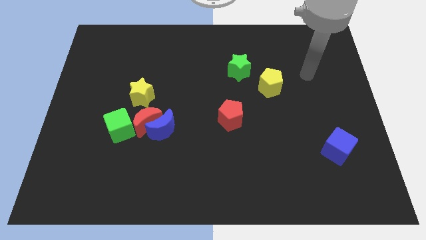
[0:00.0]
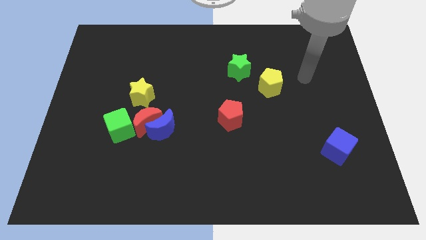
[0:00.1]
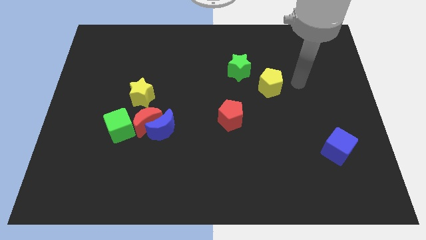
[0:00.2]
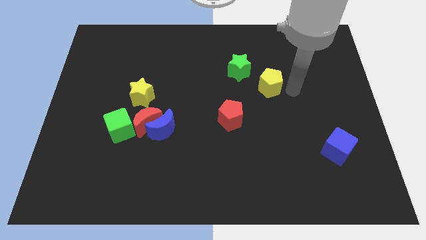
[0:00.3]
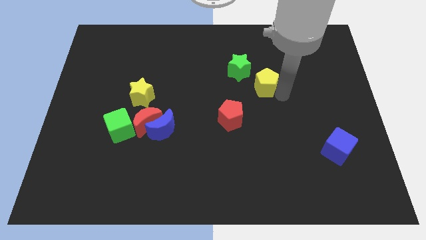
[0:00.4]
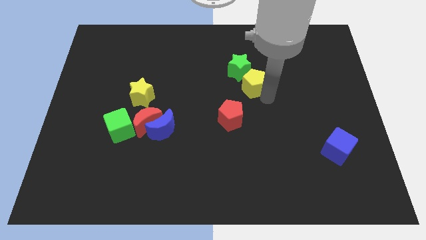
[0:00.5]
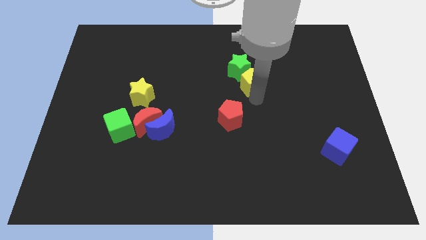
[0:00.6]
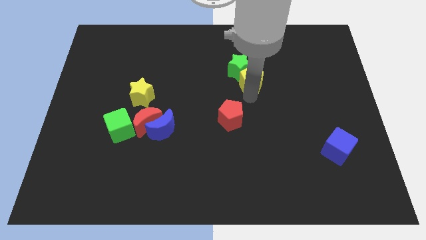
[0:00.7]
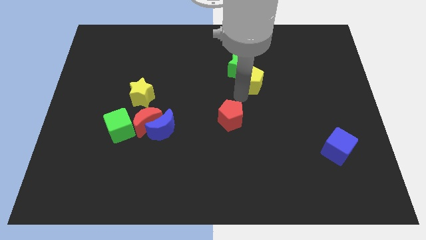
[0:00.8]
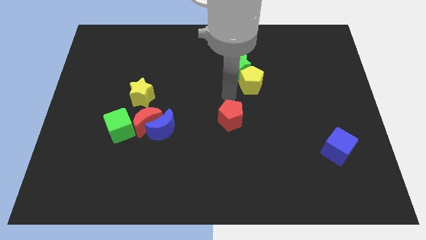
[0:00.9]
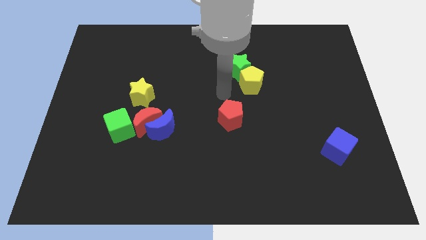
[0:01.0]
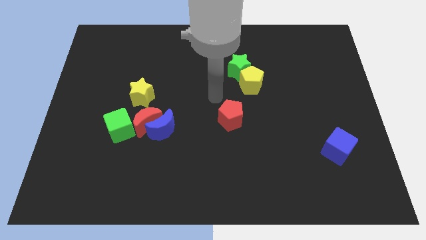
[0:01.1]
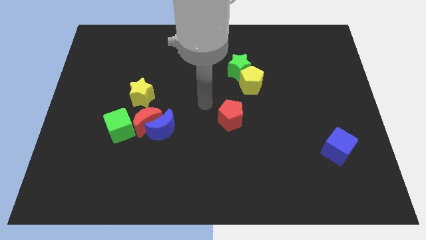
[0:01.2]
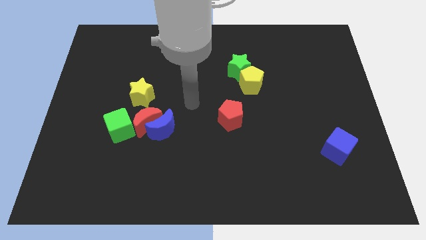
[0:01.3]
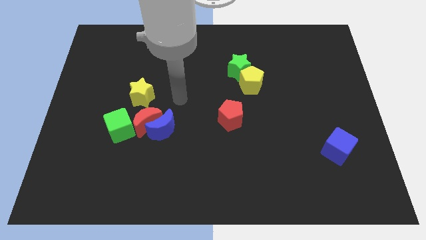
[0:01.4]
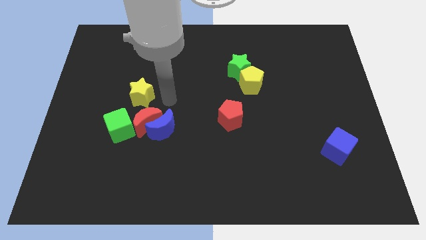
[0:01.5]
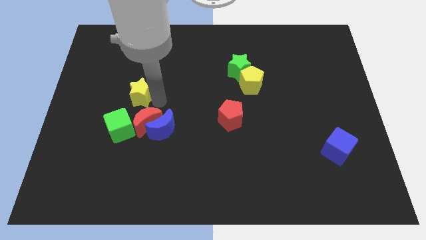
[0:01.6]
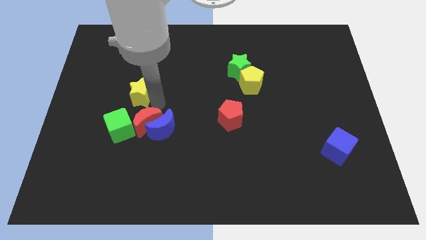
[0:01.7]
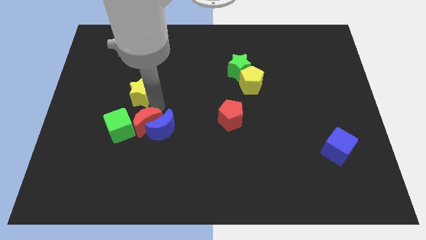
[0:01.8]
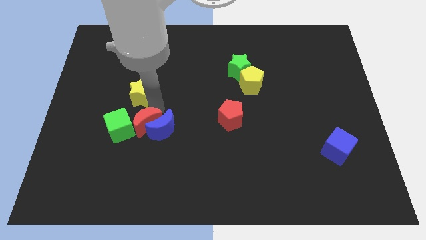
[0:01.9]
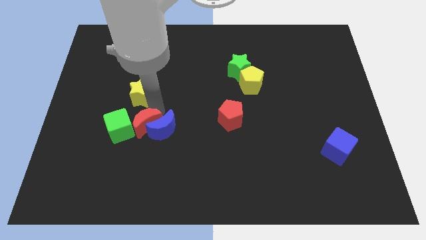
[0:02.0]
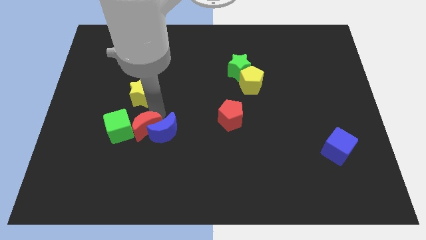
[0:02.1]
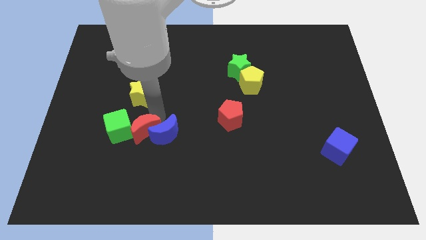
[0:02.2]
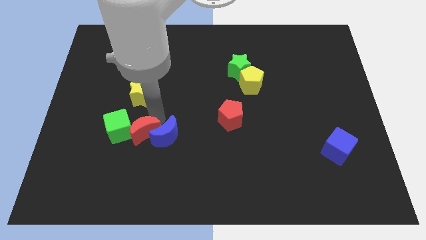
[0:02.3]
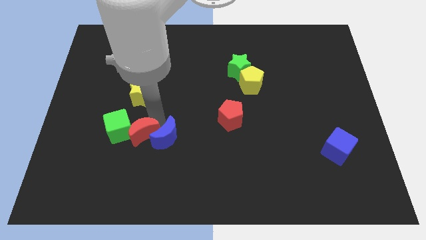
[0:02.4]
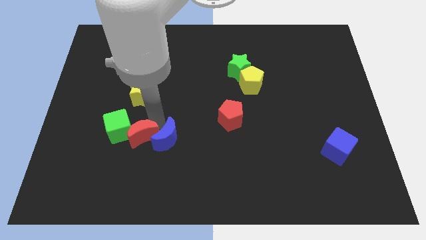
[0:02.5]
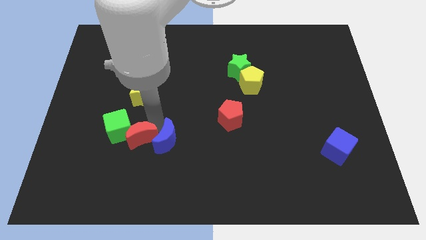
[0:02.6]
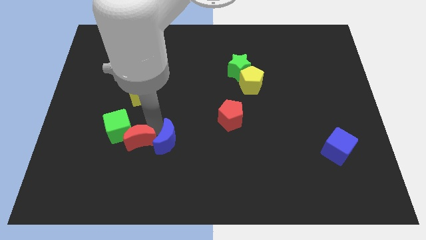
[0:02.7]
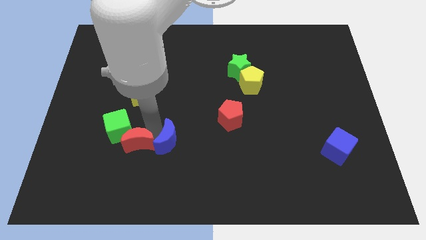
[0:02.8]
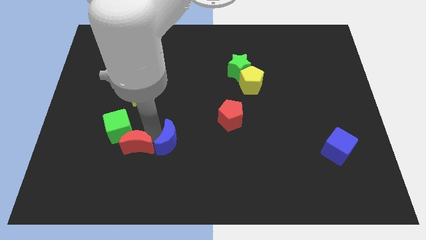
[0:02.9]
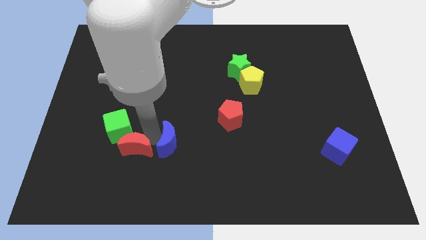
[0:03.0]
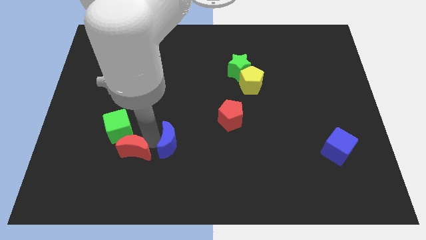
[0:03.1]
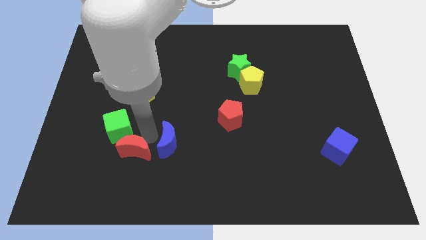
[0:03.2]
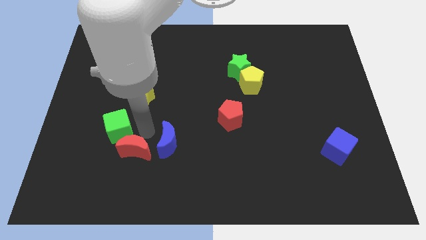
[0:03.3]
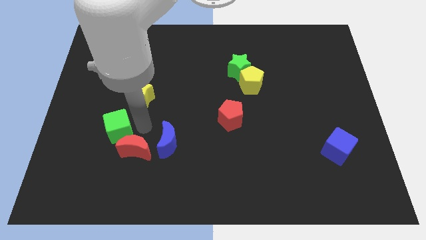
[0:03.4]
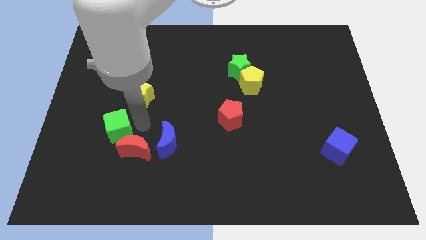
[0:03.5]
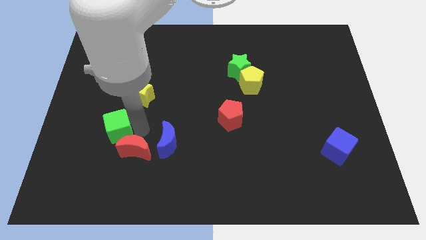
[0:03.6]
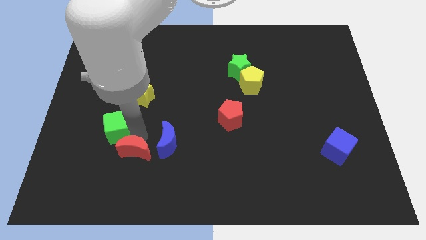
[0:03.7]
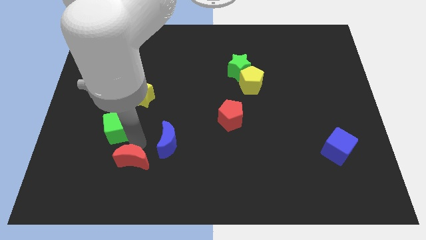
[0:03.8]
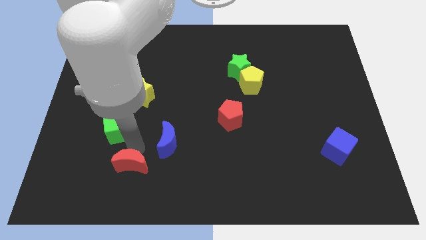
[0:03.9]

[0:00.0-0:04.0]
separate the red moon from the clump

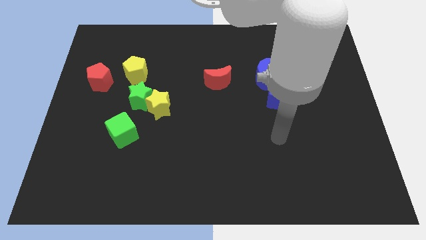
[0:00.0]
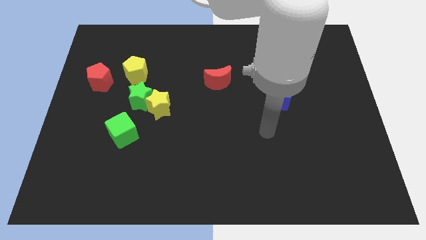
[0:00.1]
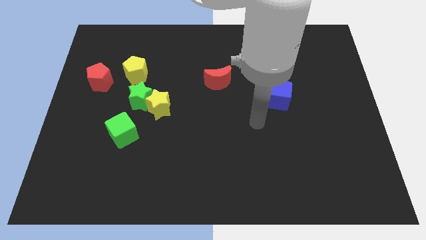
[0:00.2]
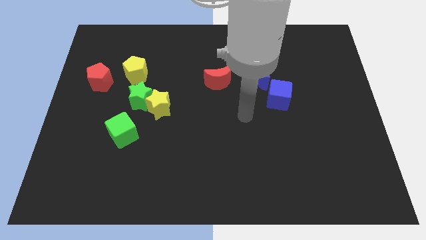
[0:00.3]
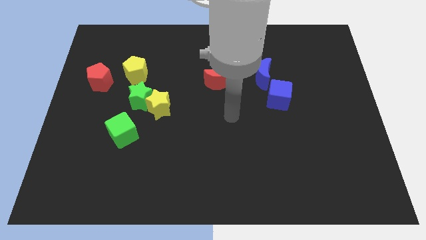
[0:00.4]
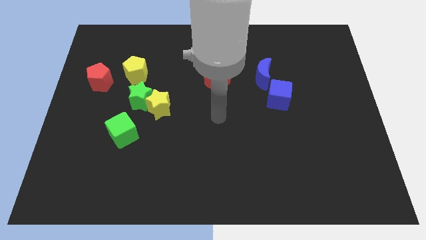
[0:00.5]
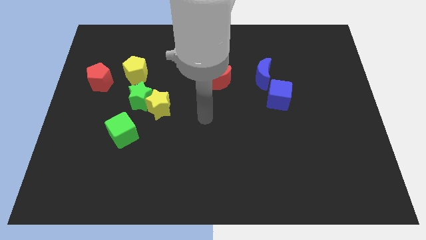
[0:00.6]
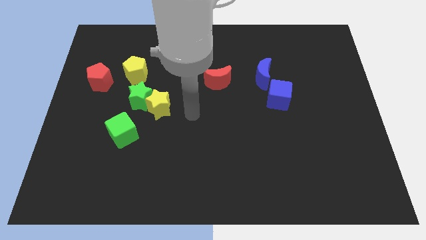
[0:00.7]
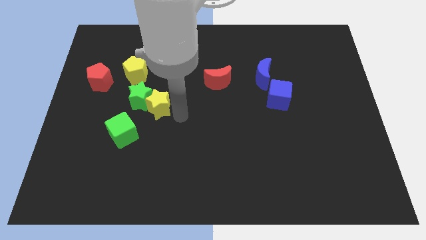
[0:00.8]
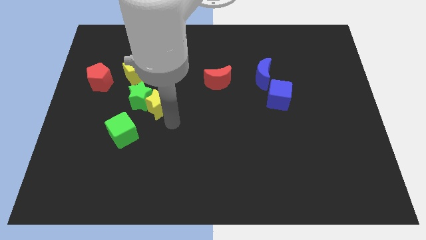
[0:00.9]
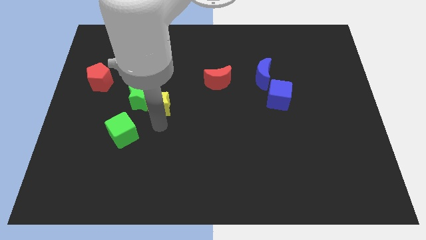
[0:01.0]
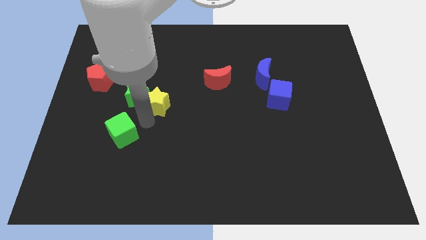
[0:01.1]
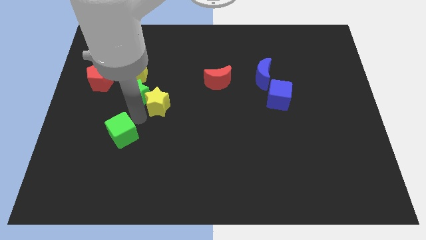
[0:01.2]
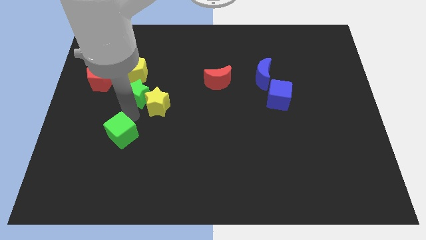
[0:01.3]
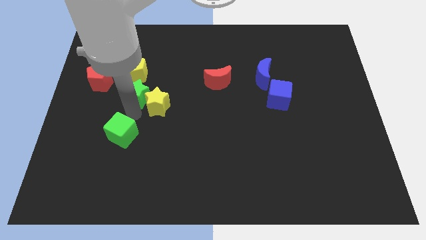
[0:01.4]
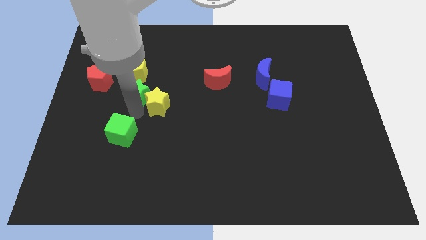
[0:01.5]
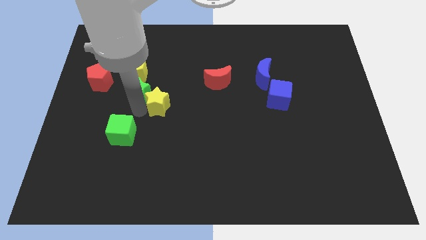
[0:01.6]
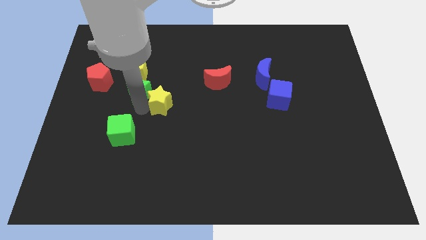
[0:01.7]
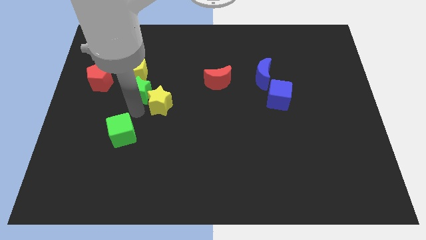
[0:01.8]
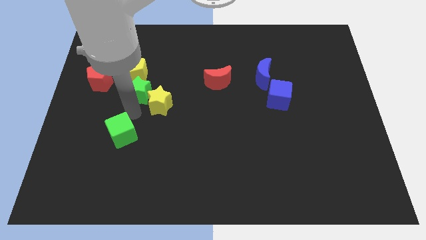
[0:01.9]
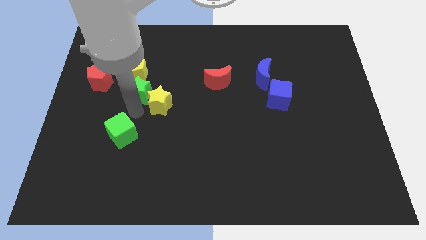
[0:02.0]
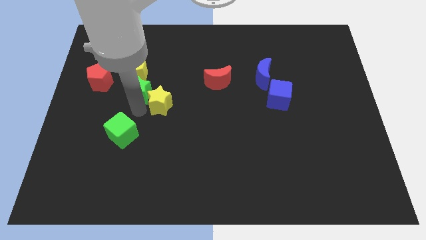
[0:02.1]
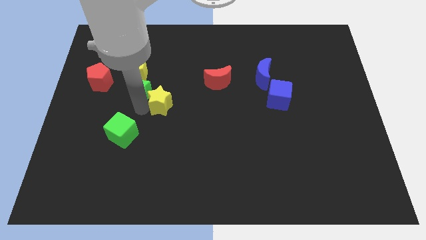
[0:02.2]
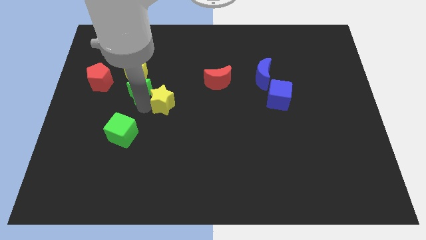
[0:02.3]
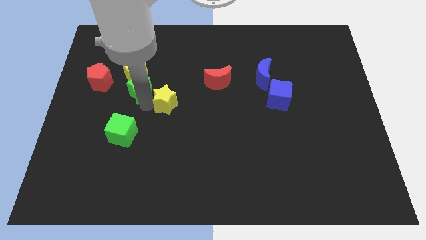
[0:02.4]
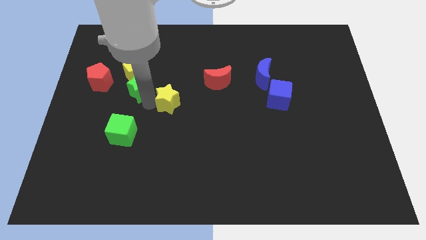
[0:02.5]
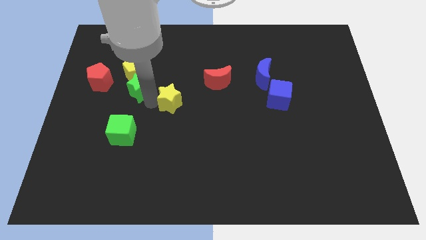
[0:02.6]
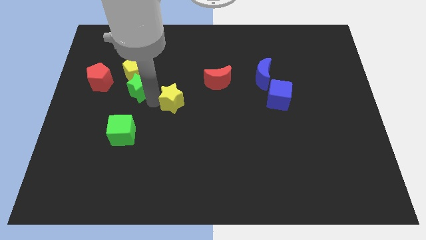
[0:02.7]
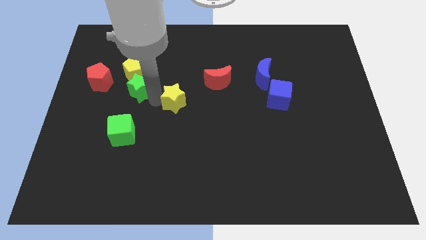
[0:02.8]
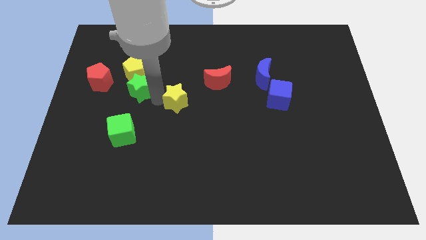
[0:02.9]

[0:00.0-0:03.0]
pull the yellow star apart from the green star and green cube

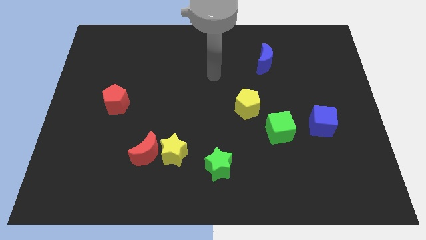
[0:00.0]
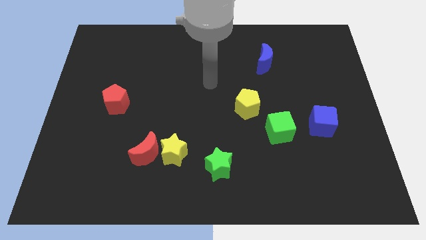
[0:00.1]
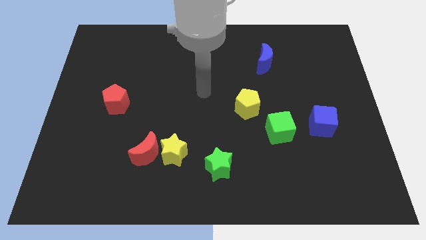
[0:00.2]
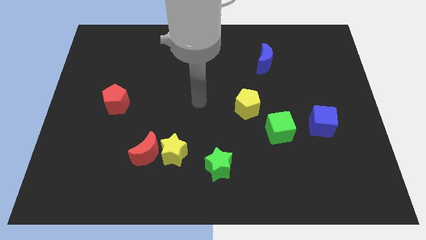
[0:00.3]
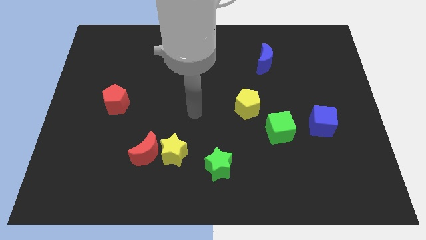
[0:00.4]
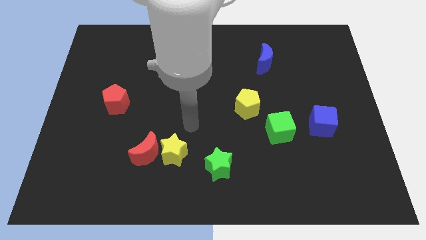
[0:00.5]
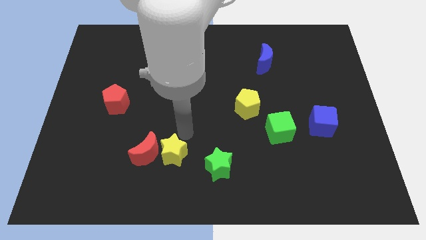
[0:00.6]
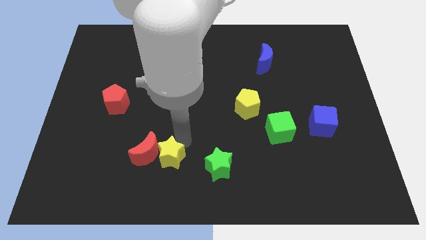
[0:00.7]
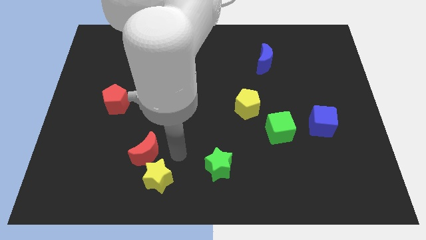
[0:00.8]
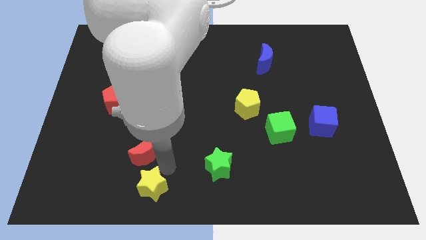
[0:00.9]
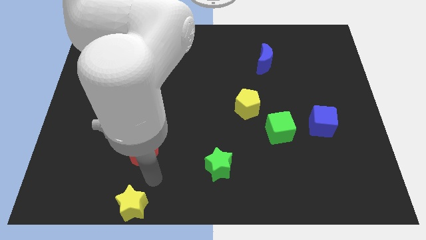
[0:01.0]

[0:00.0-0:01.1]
move the red moon away from the yellow star

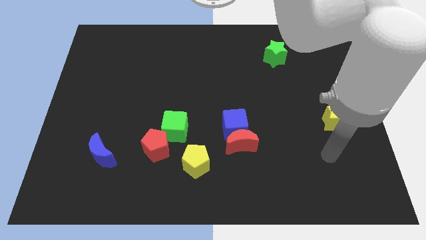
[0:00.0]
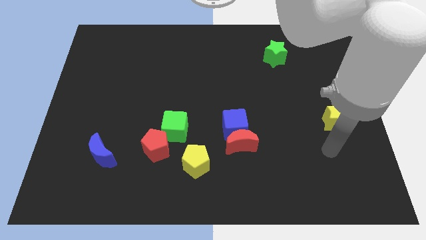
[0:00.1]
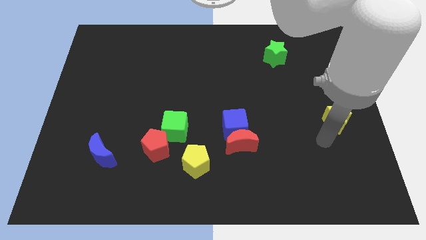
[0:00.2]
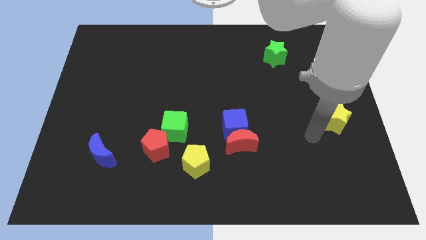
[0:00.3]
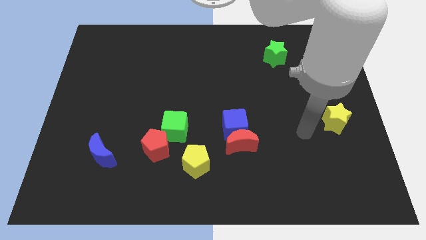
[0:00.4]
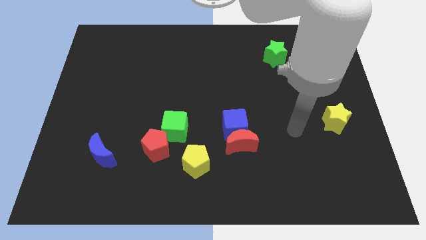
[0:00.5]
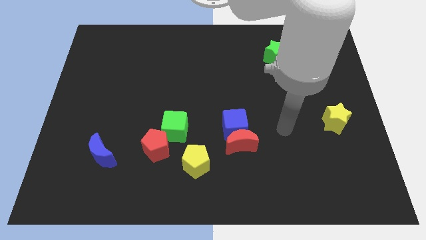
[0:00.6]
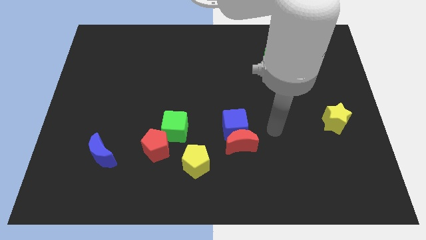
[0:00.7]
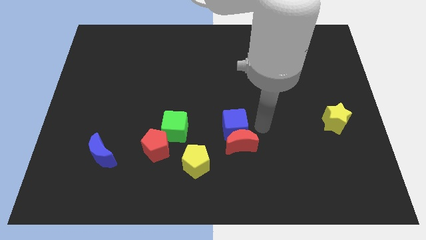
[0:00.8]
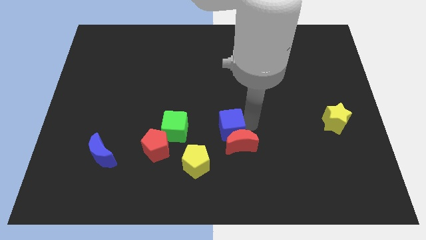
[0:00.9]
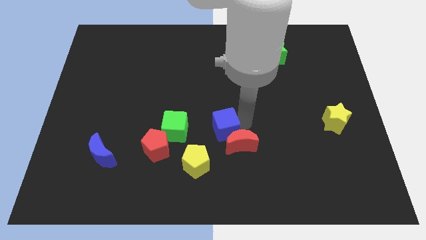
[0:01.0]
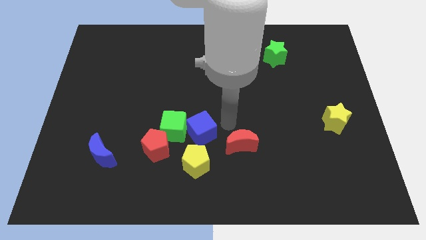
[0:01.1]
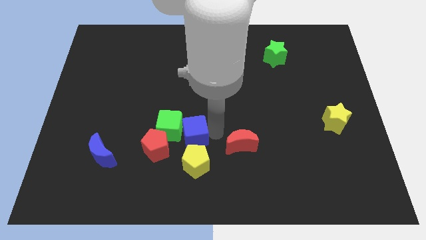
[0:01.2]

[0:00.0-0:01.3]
separate the red moon from the blue cube
